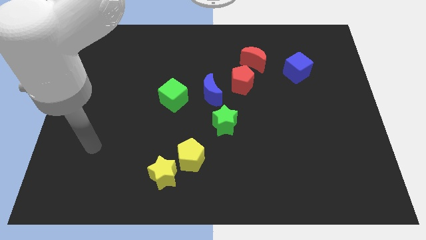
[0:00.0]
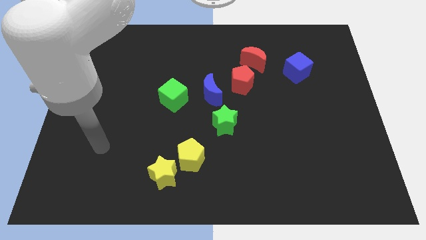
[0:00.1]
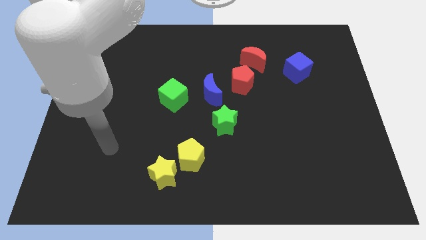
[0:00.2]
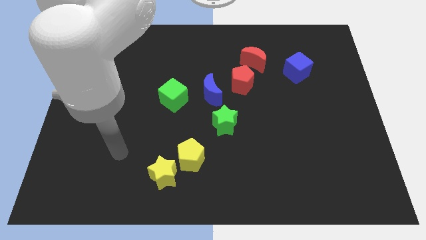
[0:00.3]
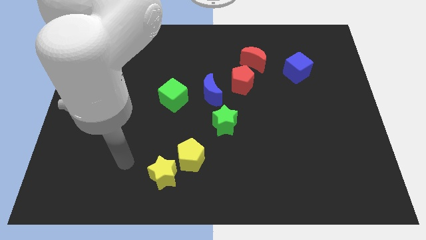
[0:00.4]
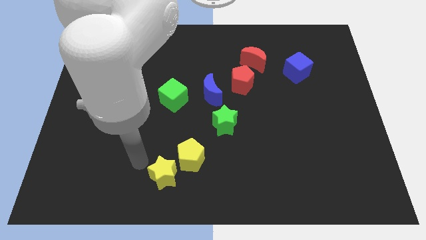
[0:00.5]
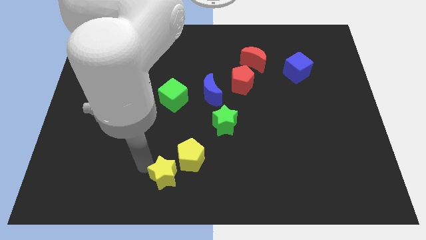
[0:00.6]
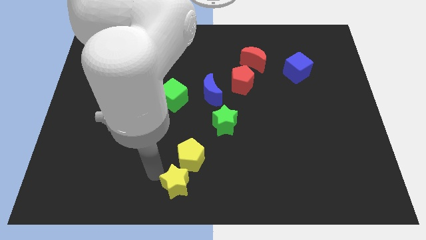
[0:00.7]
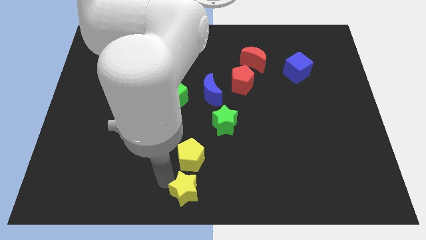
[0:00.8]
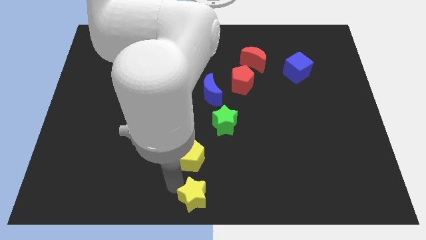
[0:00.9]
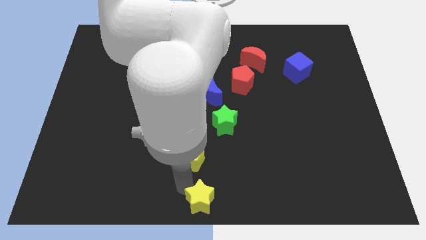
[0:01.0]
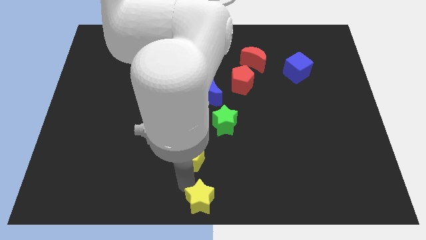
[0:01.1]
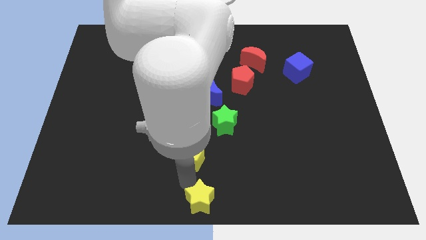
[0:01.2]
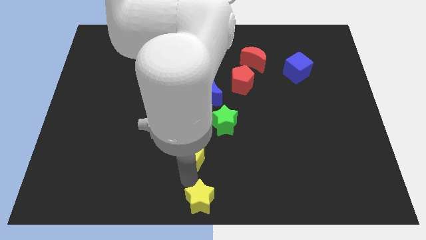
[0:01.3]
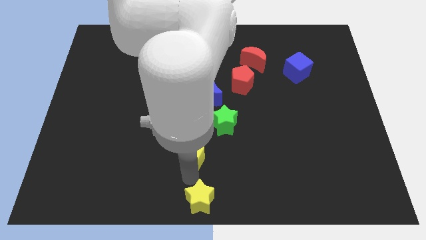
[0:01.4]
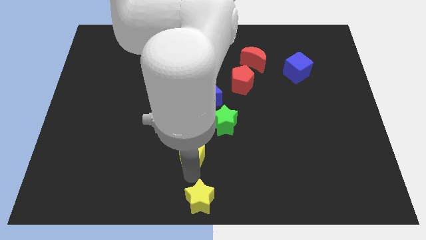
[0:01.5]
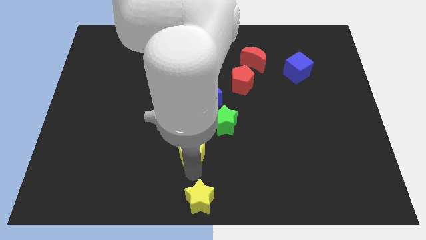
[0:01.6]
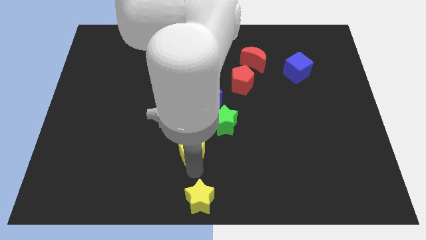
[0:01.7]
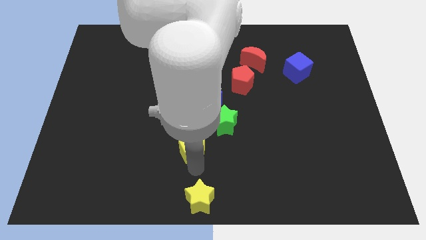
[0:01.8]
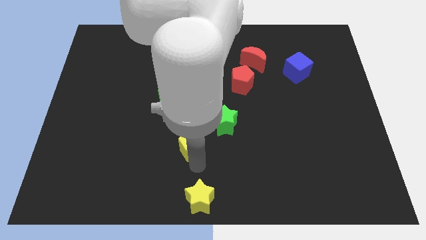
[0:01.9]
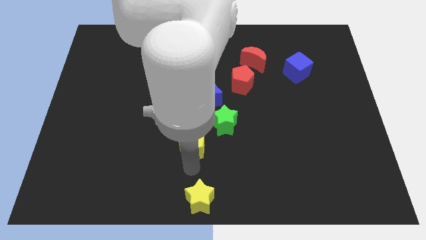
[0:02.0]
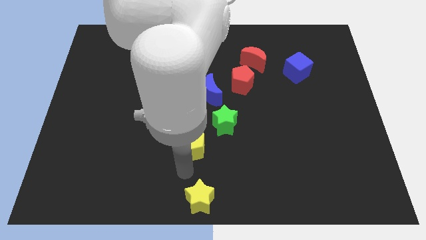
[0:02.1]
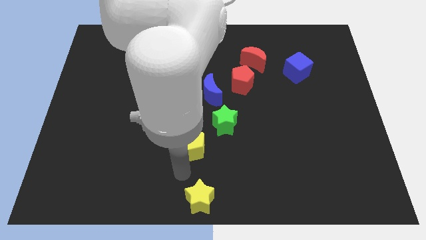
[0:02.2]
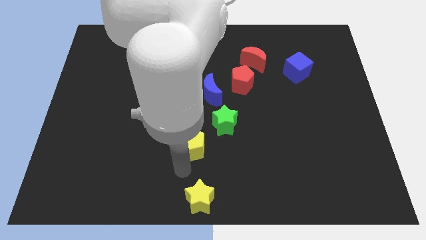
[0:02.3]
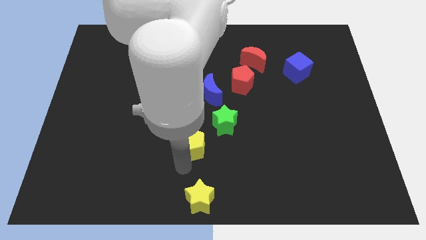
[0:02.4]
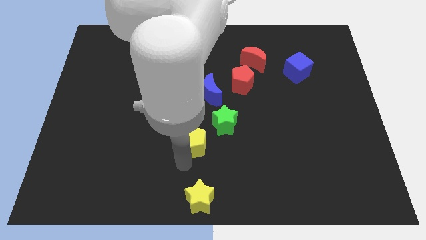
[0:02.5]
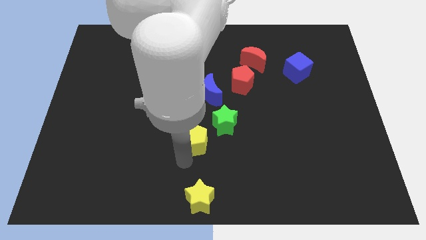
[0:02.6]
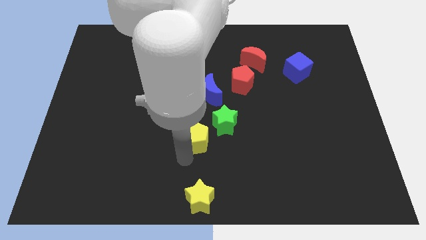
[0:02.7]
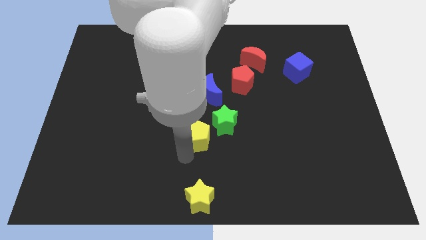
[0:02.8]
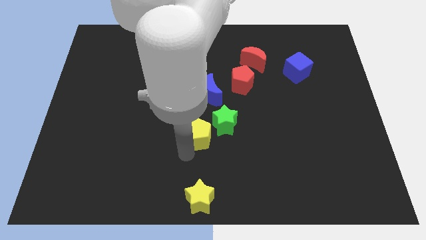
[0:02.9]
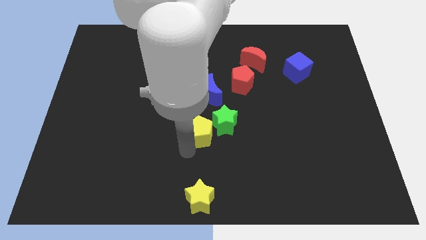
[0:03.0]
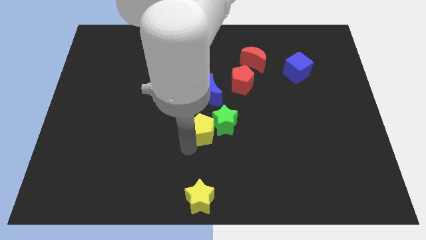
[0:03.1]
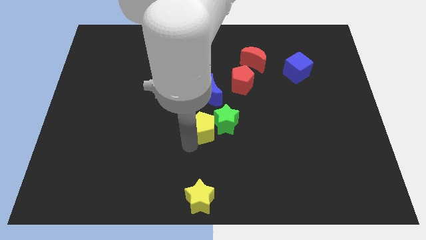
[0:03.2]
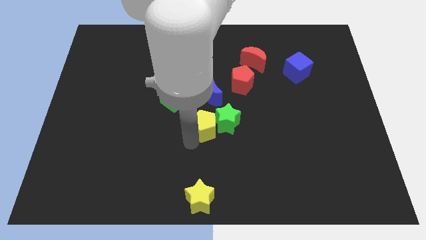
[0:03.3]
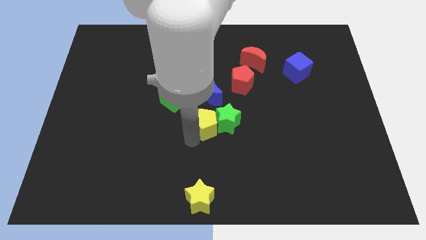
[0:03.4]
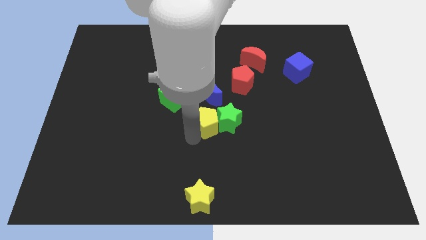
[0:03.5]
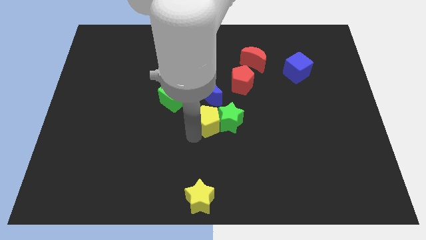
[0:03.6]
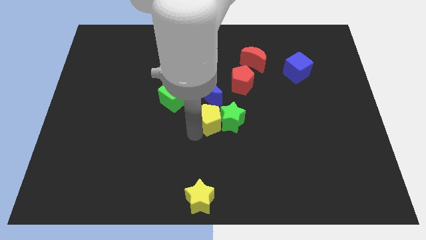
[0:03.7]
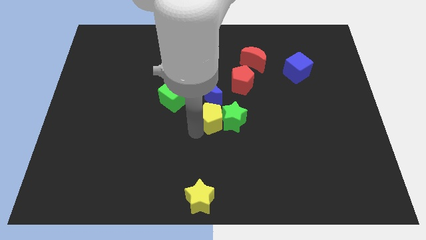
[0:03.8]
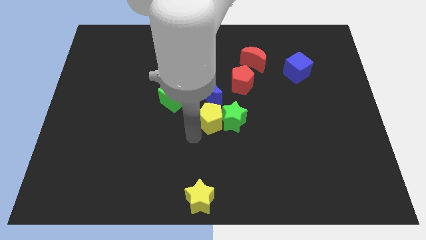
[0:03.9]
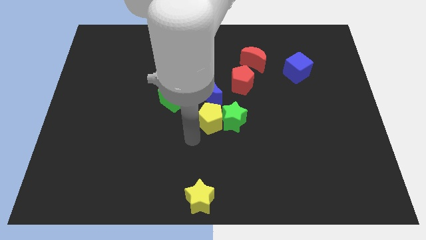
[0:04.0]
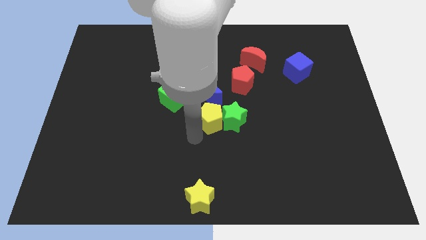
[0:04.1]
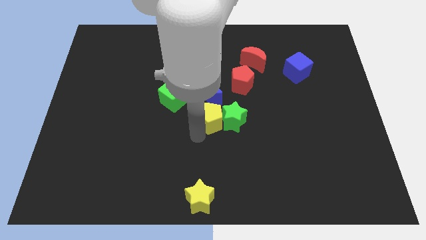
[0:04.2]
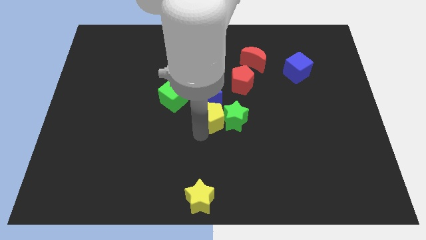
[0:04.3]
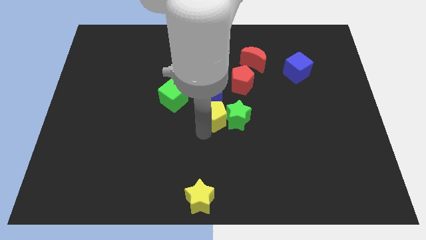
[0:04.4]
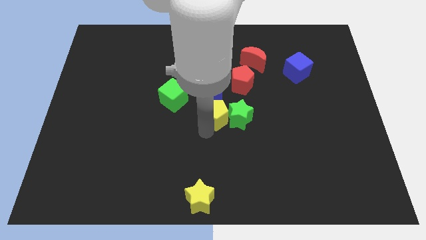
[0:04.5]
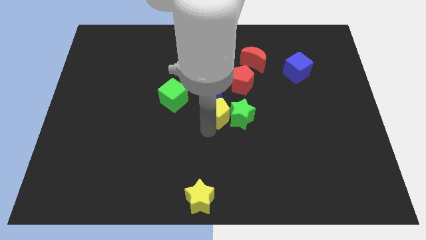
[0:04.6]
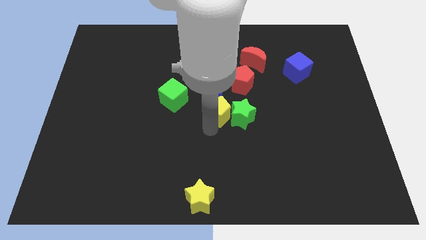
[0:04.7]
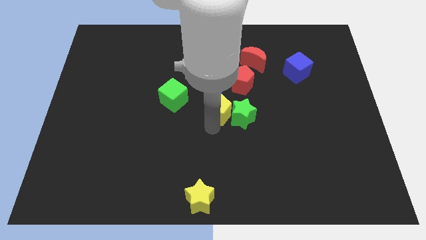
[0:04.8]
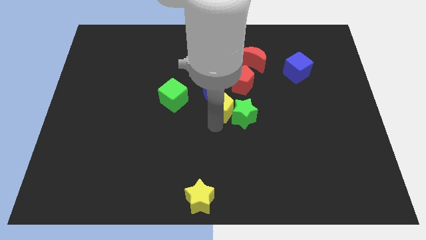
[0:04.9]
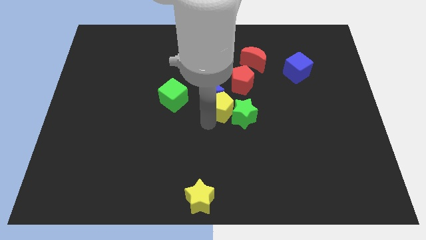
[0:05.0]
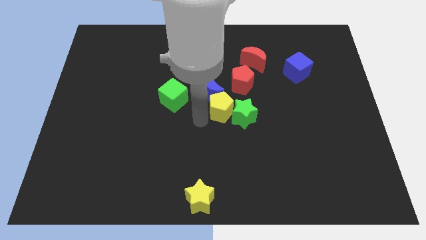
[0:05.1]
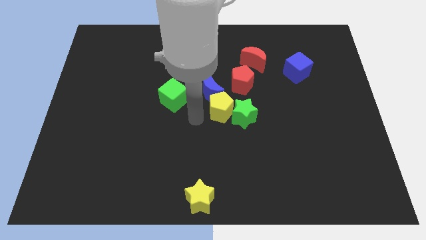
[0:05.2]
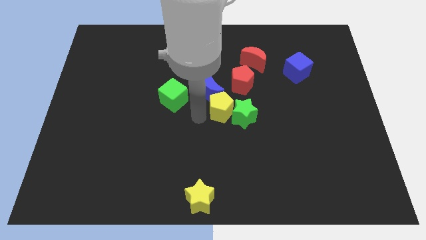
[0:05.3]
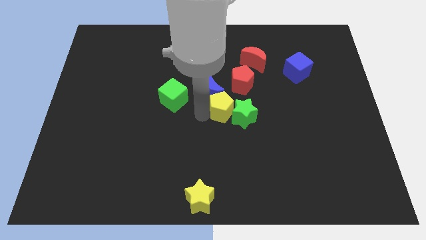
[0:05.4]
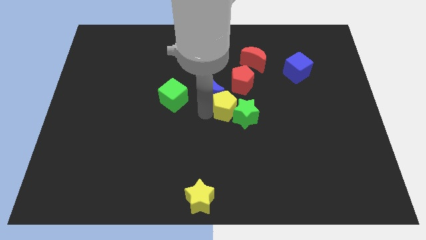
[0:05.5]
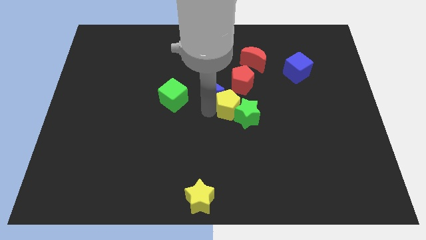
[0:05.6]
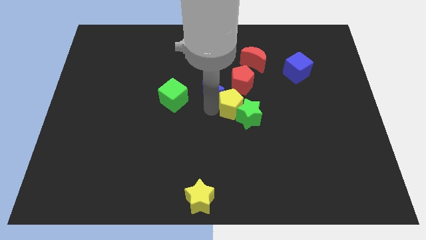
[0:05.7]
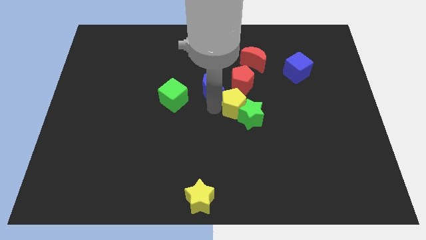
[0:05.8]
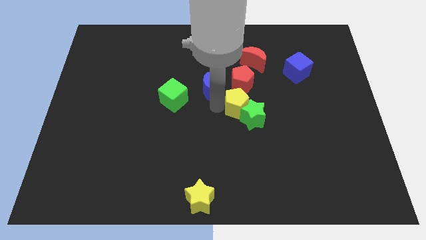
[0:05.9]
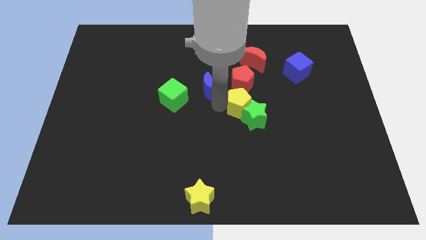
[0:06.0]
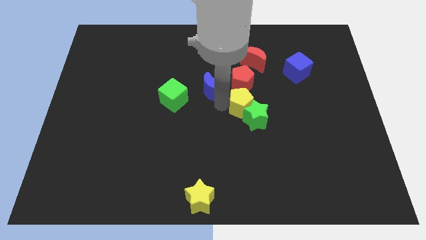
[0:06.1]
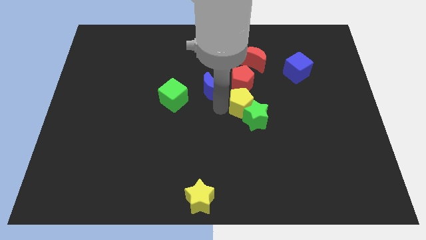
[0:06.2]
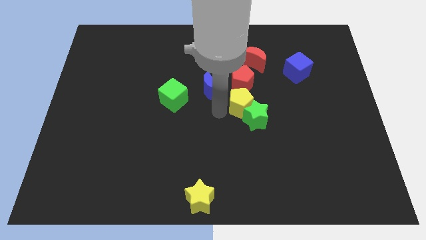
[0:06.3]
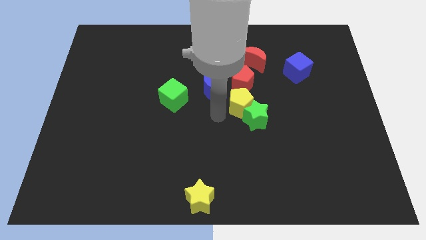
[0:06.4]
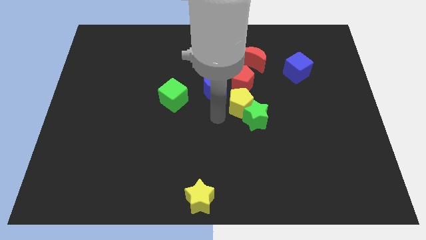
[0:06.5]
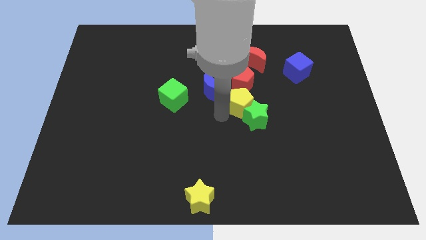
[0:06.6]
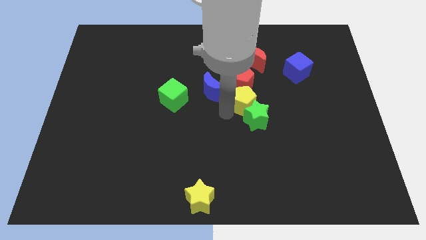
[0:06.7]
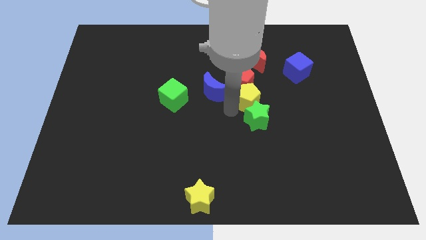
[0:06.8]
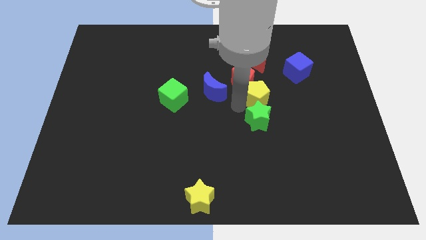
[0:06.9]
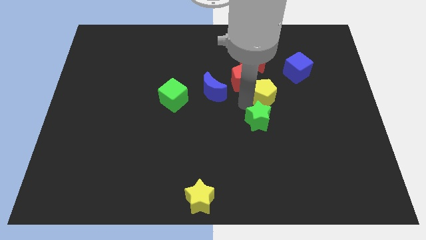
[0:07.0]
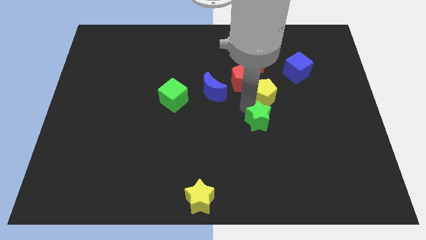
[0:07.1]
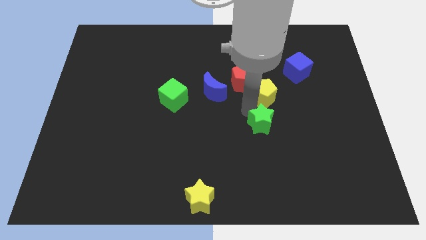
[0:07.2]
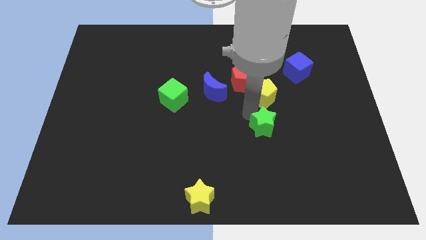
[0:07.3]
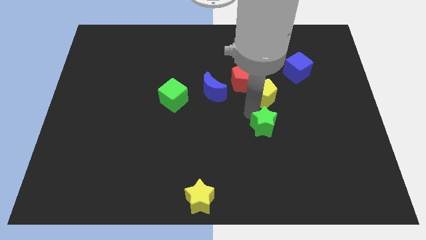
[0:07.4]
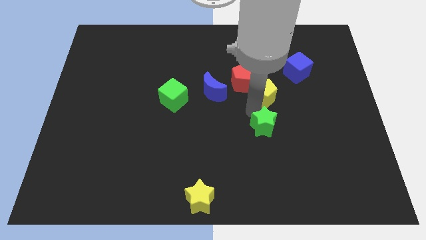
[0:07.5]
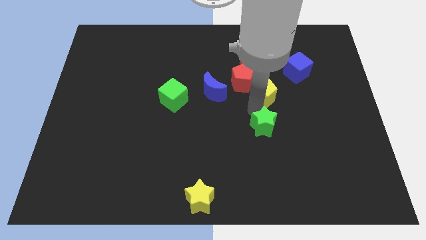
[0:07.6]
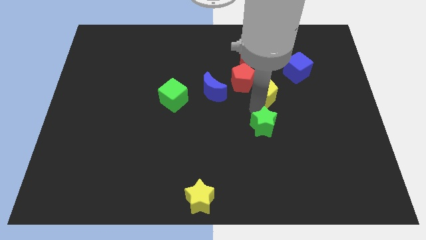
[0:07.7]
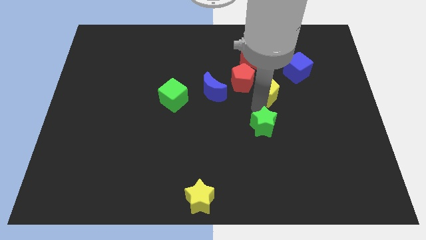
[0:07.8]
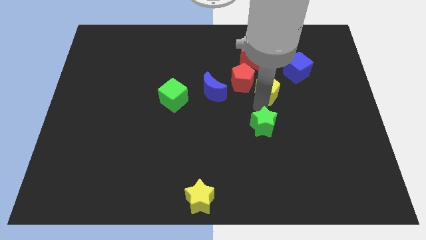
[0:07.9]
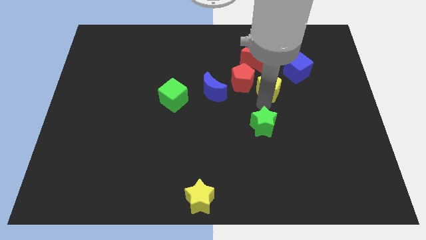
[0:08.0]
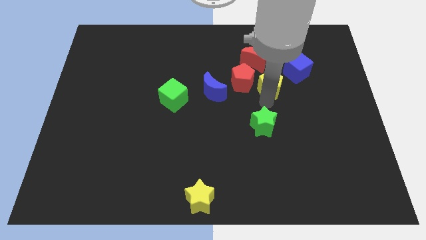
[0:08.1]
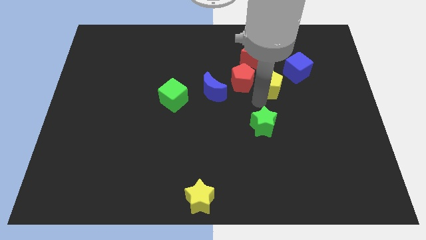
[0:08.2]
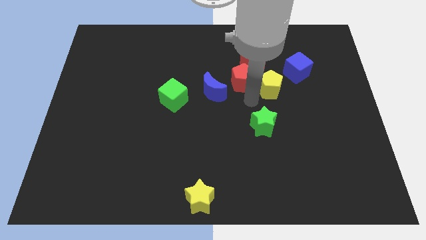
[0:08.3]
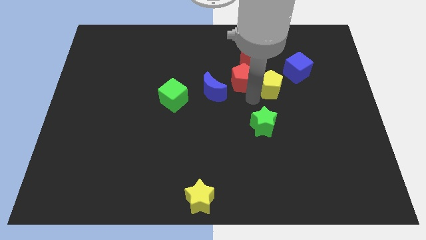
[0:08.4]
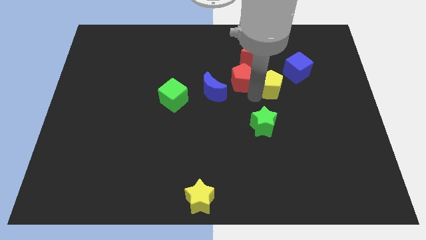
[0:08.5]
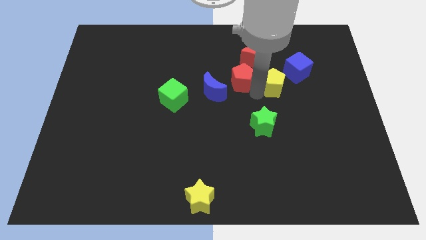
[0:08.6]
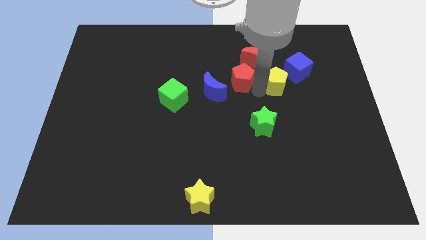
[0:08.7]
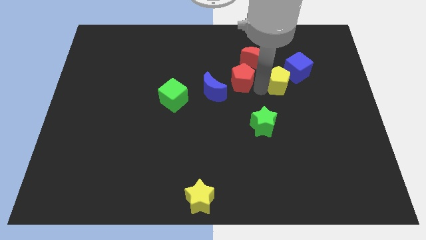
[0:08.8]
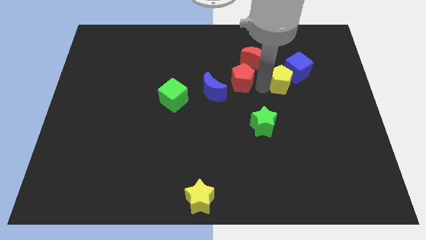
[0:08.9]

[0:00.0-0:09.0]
put the yellow pentagon close to the blue cube
